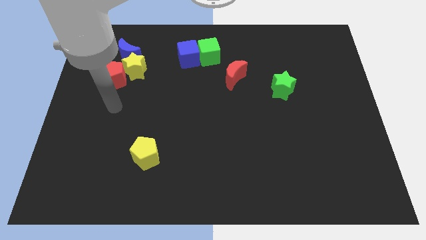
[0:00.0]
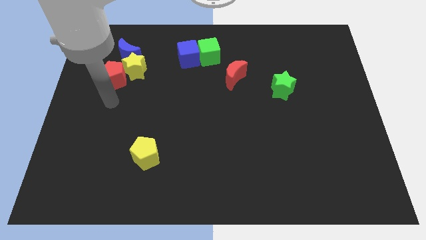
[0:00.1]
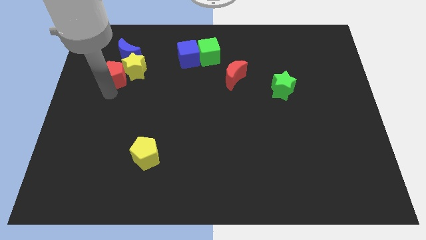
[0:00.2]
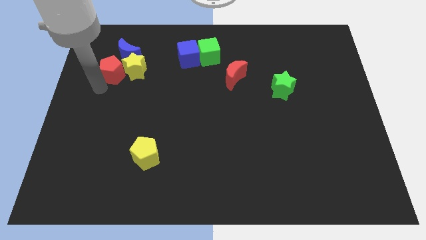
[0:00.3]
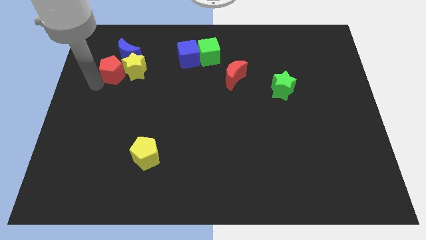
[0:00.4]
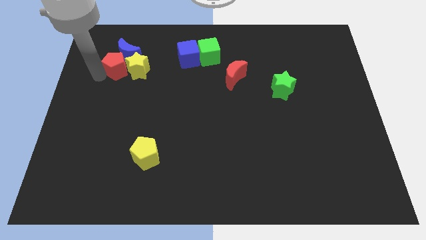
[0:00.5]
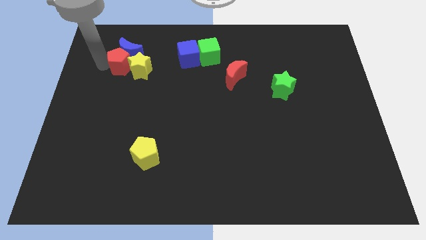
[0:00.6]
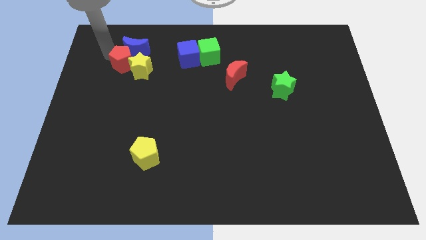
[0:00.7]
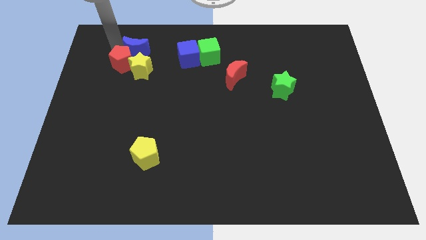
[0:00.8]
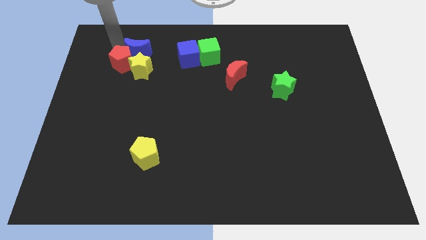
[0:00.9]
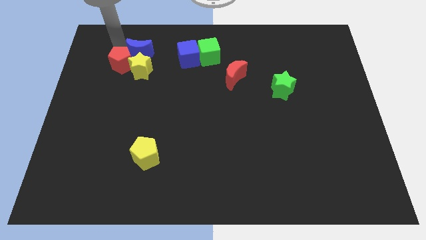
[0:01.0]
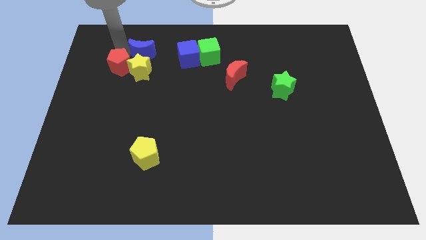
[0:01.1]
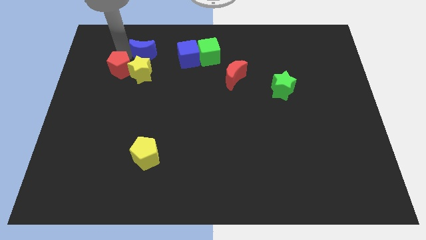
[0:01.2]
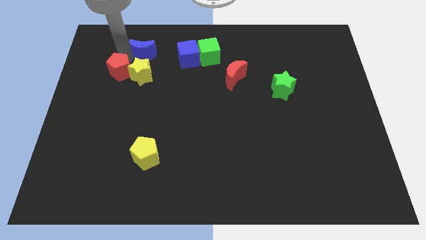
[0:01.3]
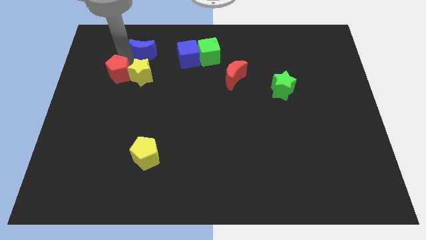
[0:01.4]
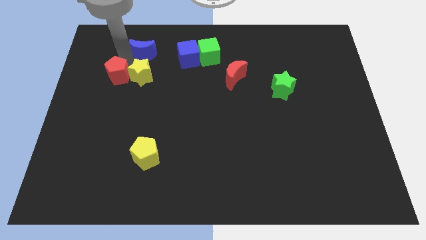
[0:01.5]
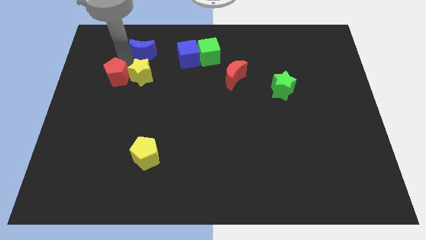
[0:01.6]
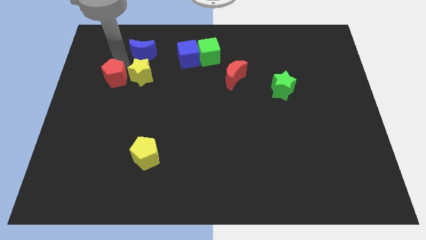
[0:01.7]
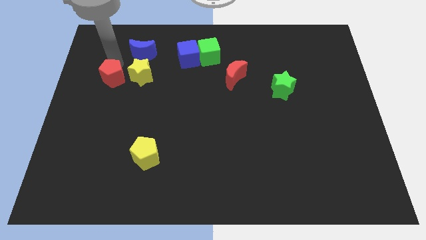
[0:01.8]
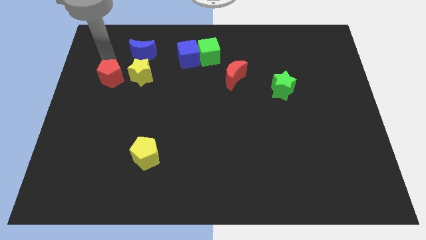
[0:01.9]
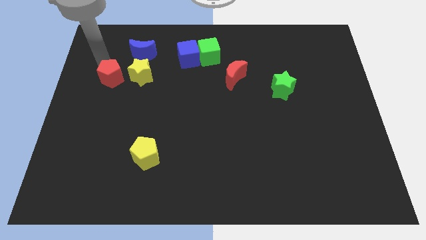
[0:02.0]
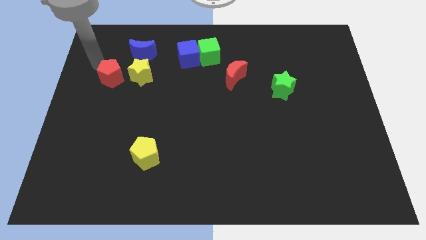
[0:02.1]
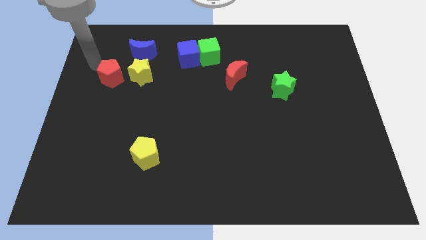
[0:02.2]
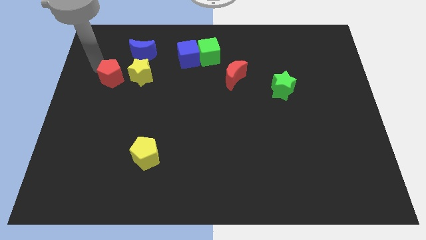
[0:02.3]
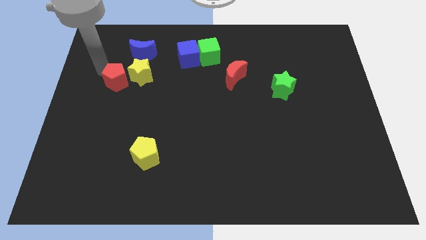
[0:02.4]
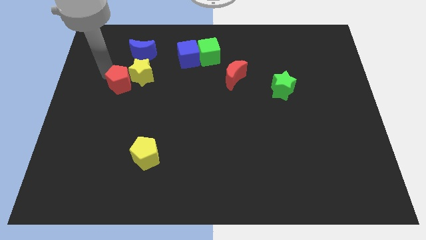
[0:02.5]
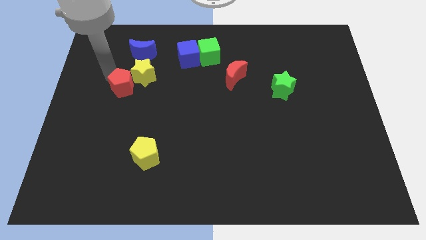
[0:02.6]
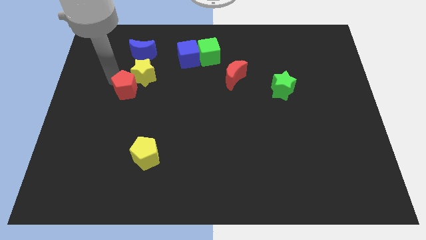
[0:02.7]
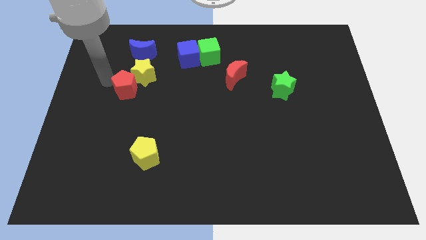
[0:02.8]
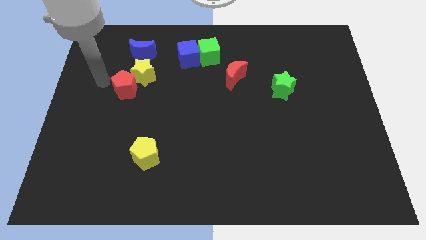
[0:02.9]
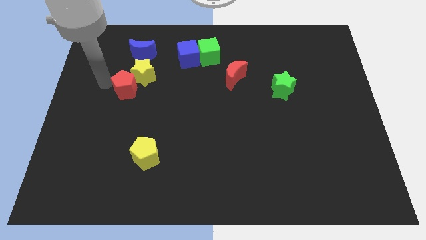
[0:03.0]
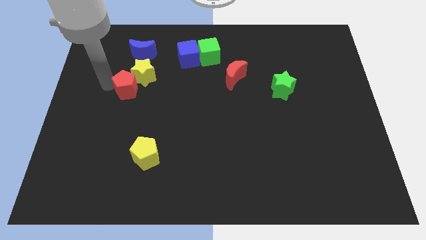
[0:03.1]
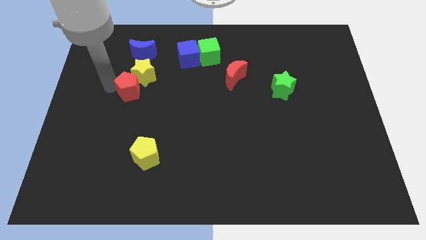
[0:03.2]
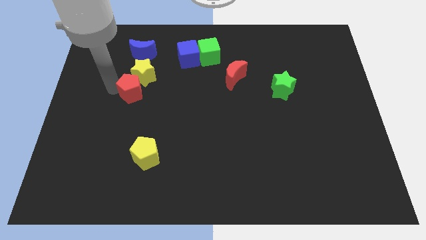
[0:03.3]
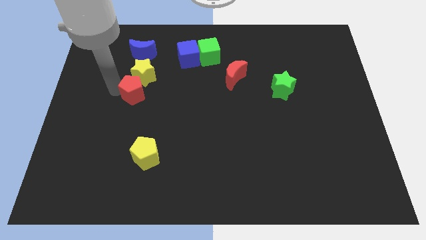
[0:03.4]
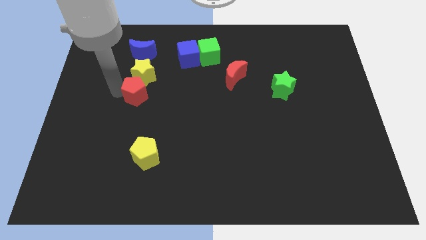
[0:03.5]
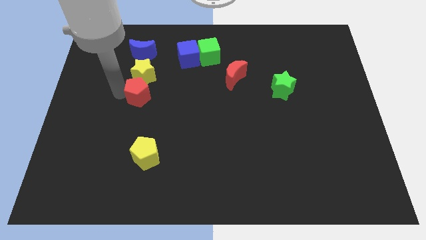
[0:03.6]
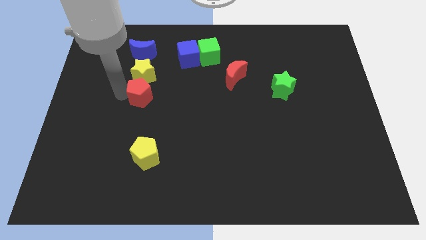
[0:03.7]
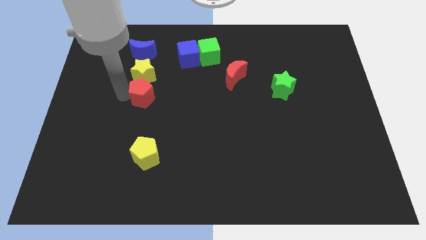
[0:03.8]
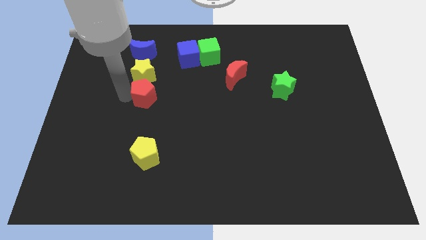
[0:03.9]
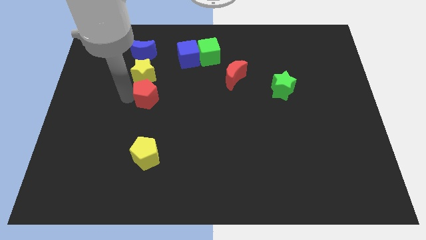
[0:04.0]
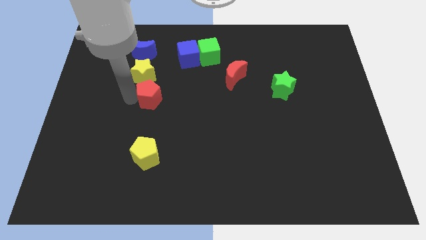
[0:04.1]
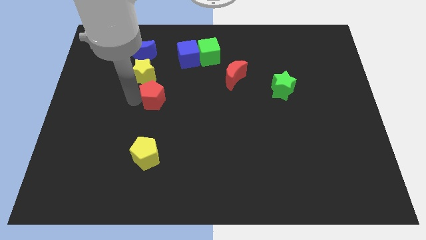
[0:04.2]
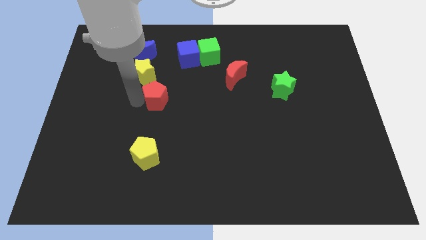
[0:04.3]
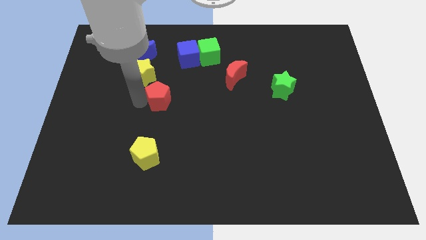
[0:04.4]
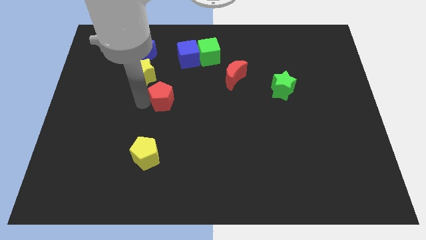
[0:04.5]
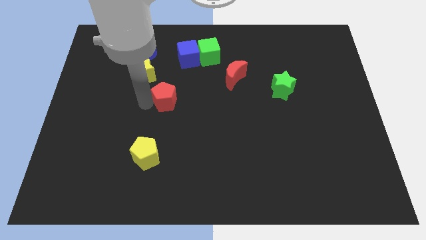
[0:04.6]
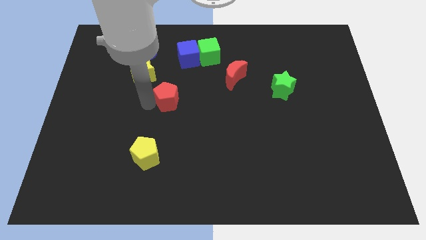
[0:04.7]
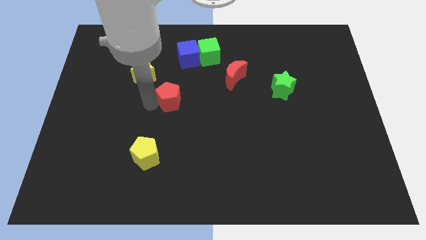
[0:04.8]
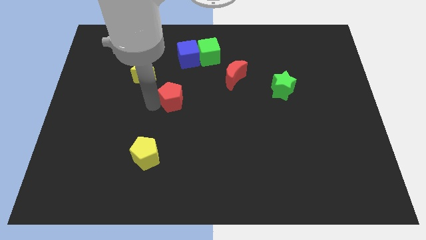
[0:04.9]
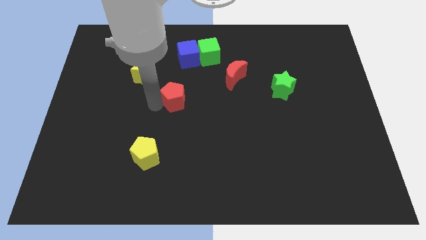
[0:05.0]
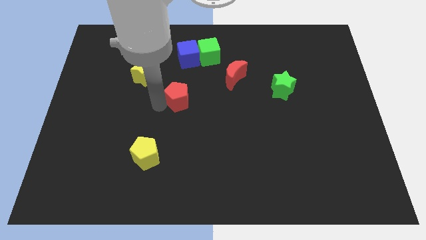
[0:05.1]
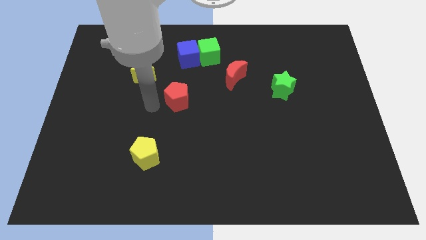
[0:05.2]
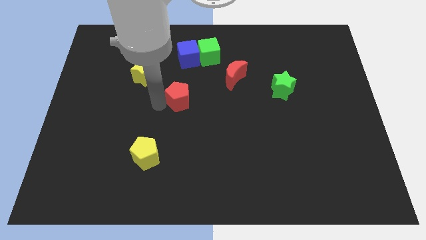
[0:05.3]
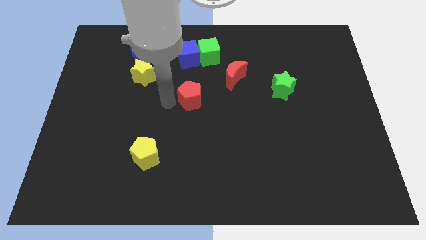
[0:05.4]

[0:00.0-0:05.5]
move the red pentagon to the bottom left side of the red moon
